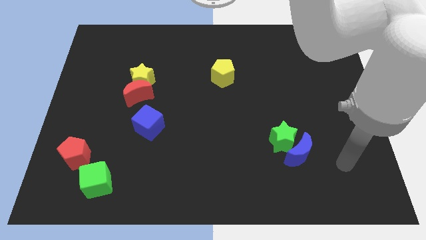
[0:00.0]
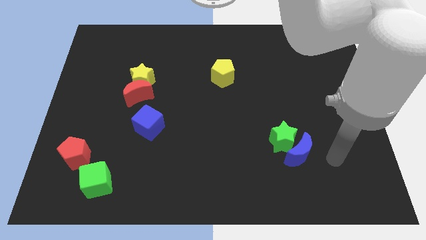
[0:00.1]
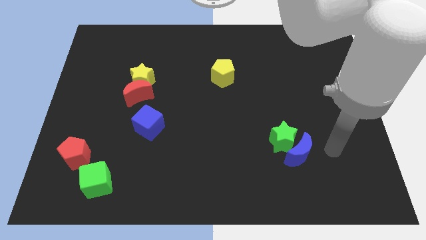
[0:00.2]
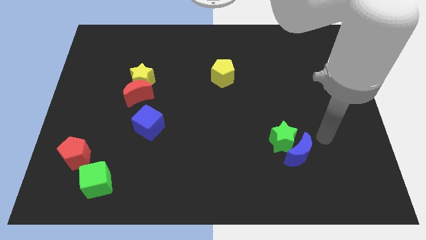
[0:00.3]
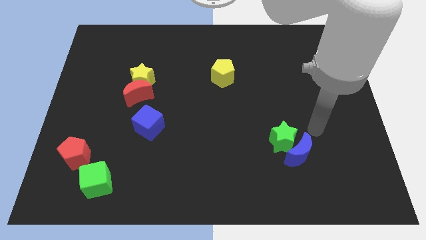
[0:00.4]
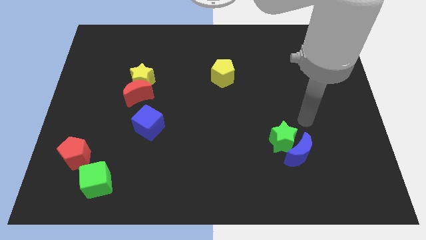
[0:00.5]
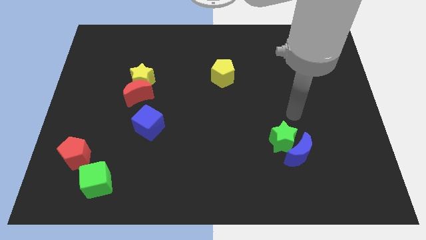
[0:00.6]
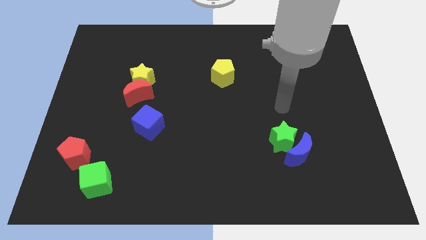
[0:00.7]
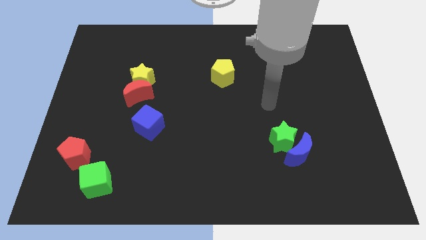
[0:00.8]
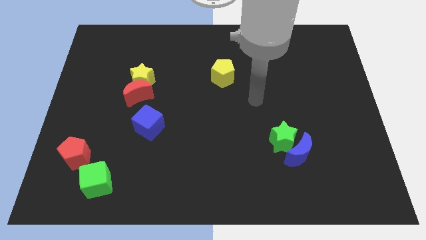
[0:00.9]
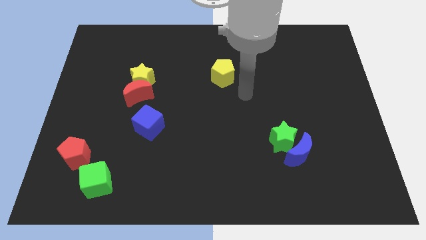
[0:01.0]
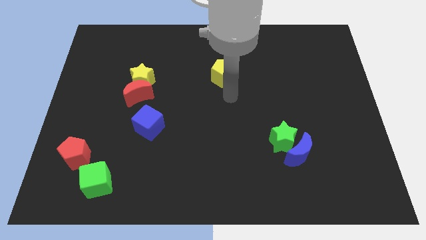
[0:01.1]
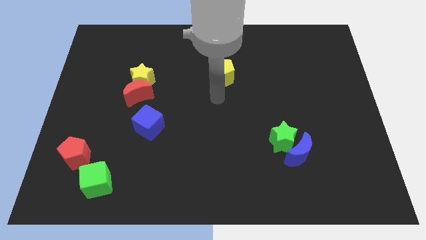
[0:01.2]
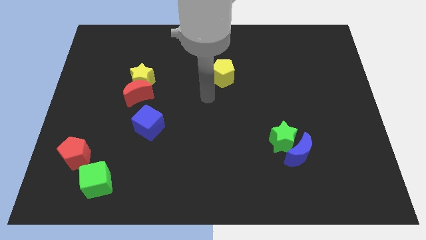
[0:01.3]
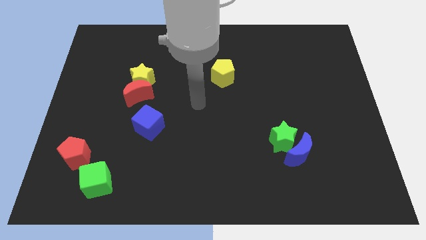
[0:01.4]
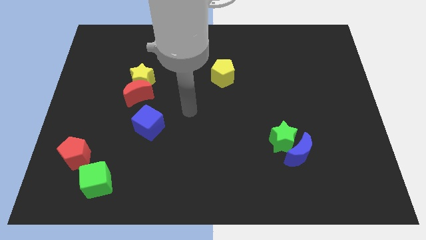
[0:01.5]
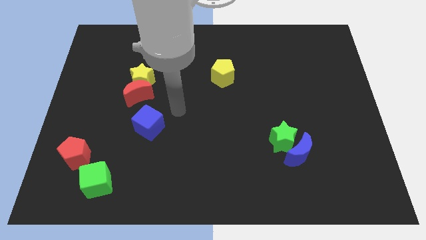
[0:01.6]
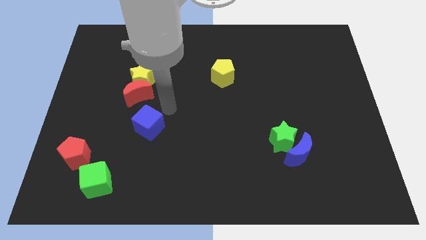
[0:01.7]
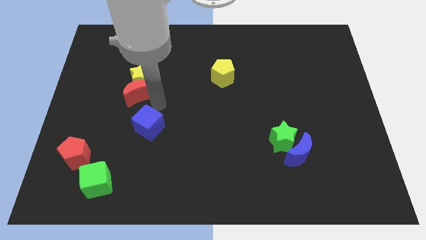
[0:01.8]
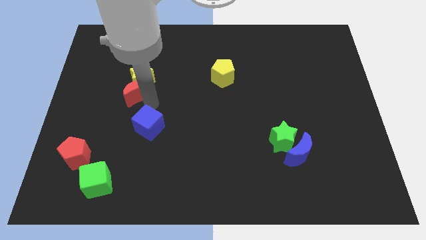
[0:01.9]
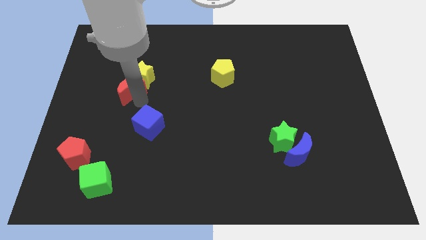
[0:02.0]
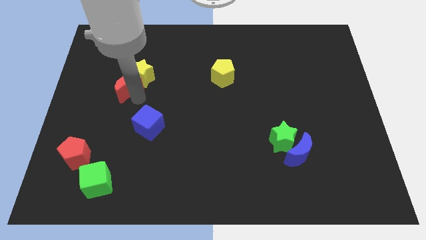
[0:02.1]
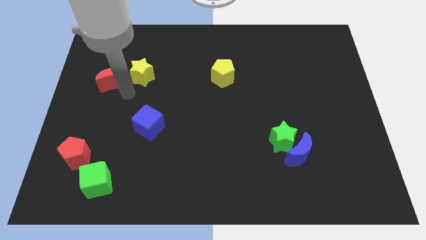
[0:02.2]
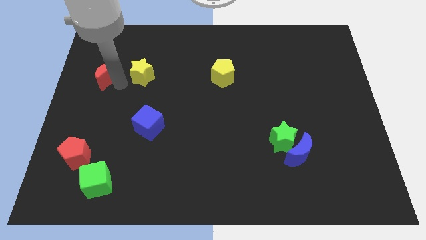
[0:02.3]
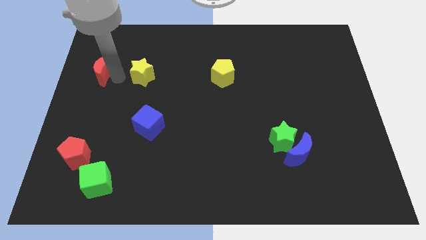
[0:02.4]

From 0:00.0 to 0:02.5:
pull the yellow star apart from the red moon

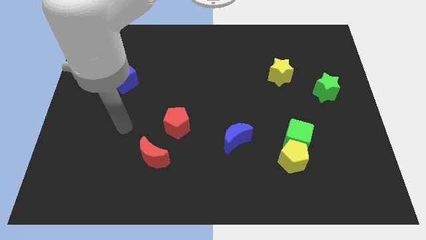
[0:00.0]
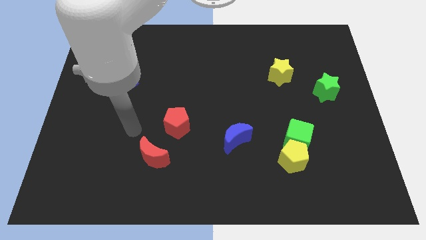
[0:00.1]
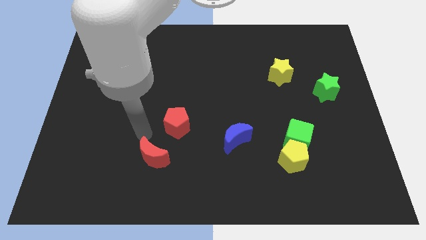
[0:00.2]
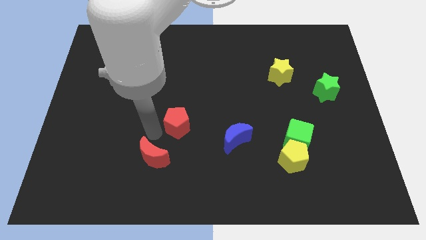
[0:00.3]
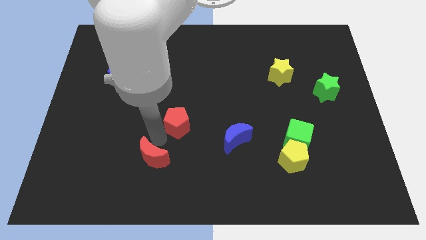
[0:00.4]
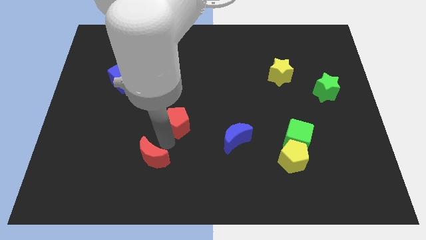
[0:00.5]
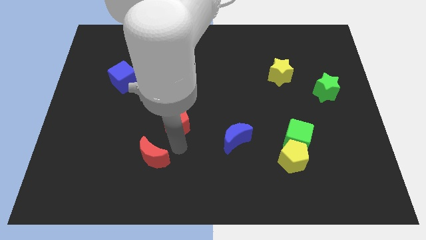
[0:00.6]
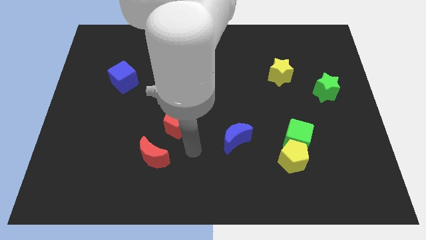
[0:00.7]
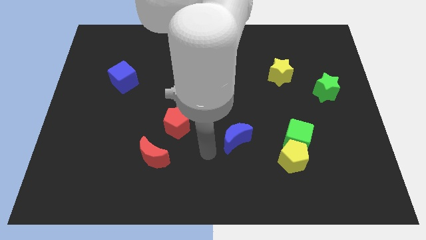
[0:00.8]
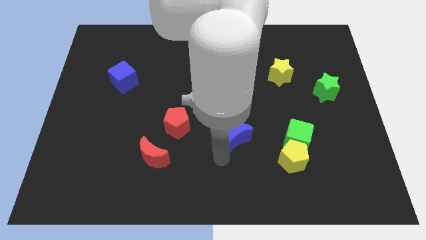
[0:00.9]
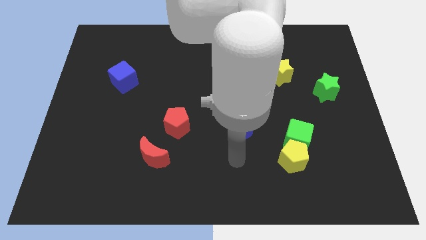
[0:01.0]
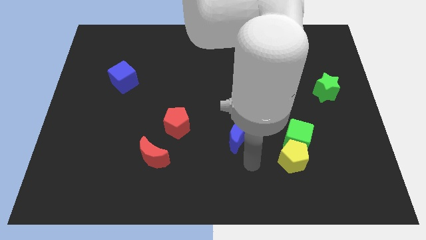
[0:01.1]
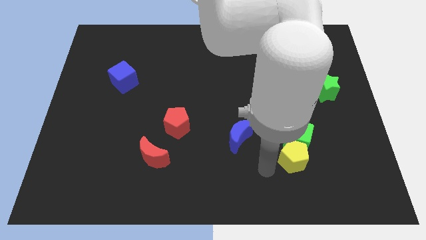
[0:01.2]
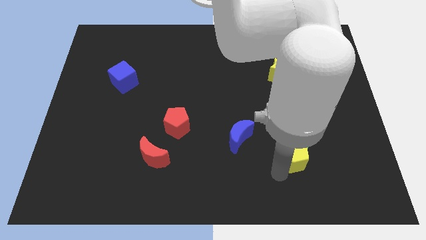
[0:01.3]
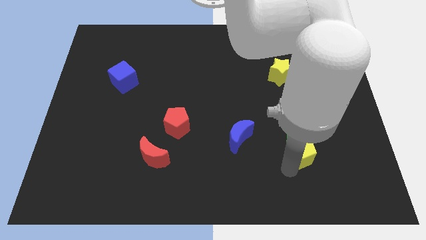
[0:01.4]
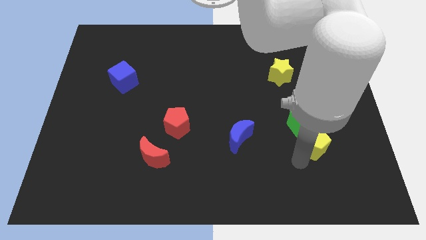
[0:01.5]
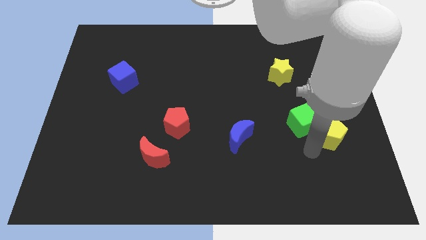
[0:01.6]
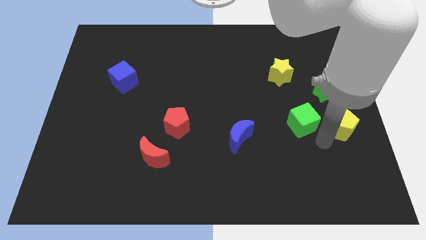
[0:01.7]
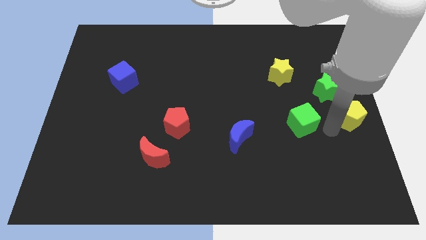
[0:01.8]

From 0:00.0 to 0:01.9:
move the green cube away from the yellow pentagon

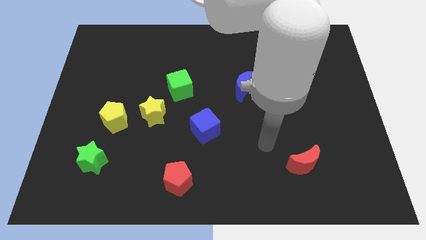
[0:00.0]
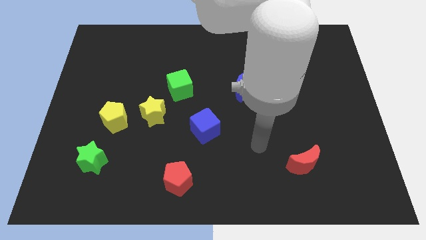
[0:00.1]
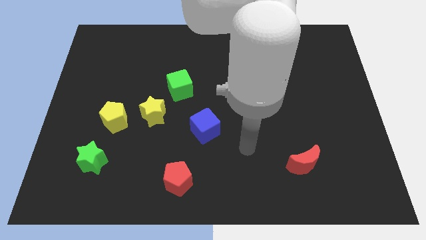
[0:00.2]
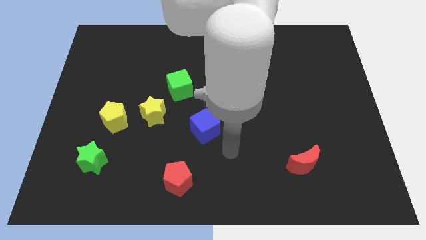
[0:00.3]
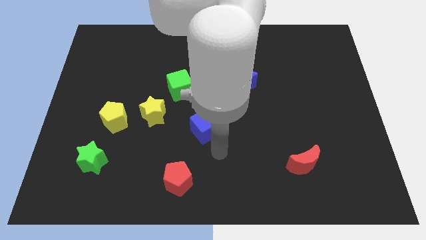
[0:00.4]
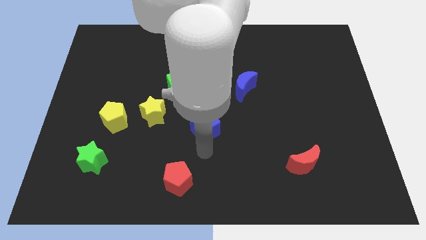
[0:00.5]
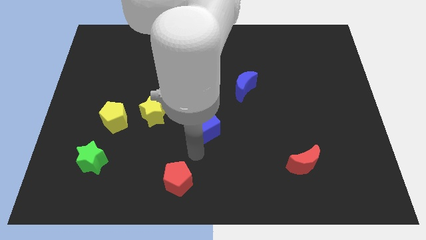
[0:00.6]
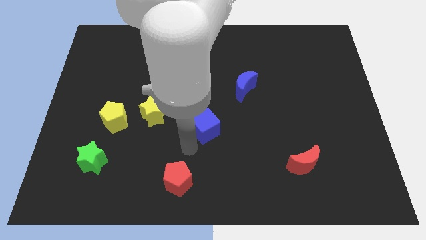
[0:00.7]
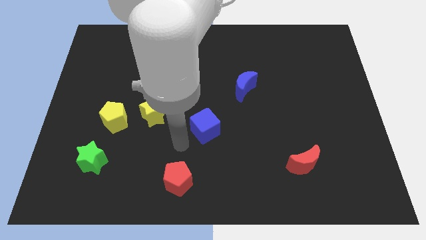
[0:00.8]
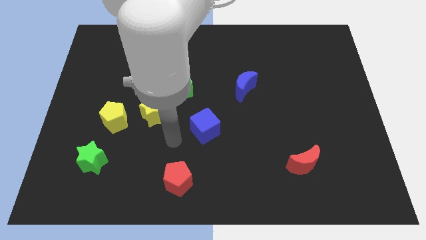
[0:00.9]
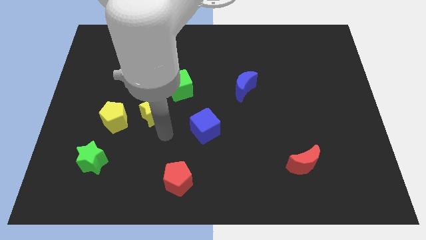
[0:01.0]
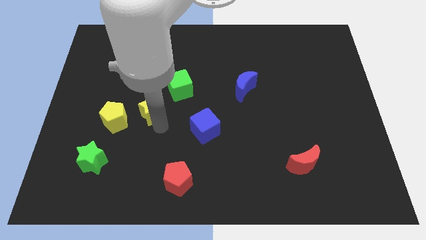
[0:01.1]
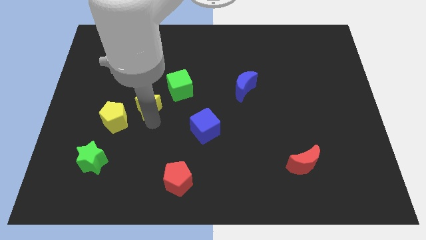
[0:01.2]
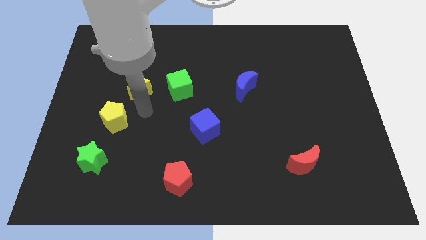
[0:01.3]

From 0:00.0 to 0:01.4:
move the yellow pentagon away from the yellow star

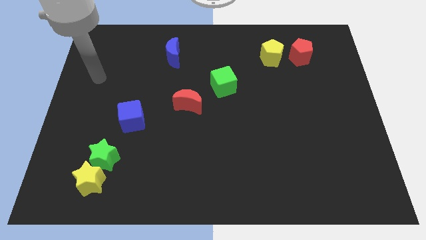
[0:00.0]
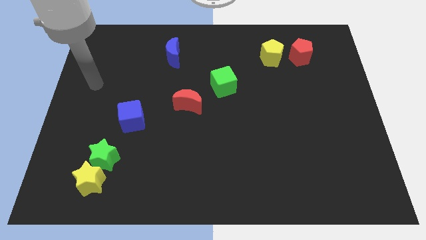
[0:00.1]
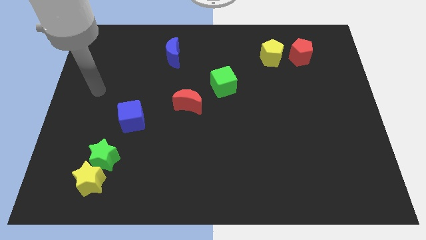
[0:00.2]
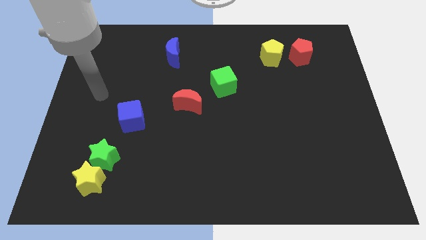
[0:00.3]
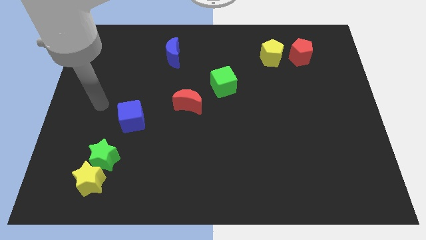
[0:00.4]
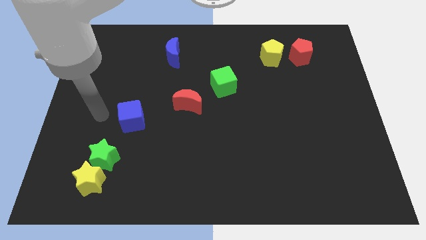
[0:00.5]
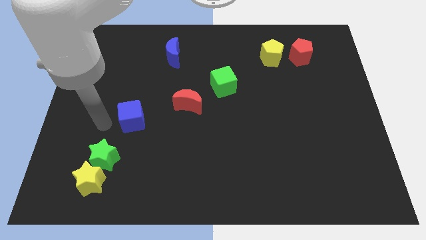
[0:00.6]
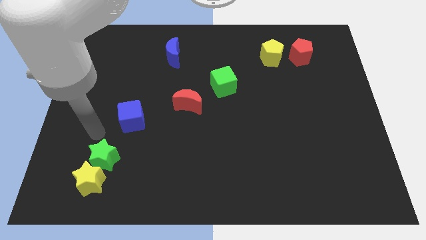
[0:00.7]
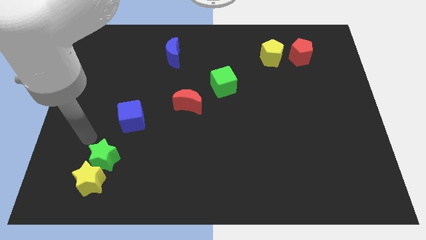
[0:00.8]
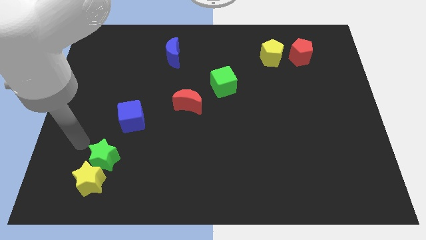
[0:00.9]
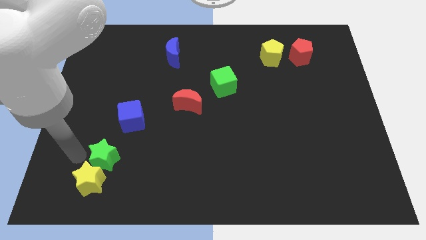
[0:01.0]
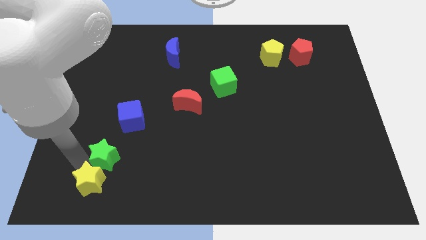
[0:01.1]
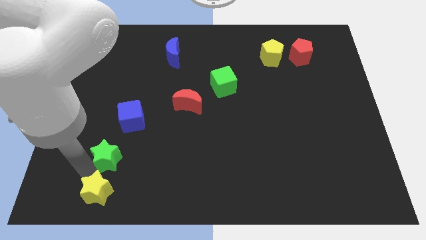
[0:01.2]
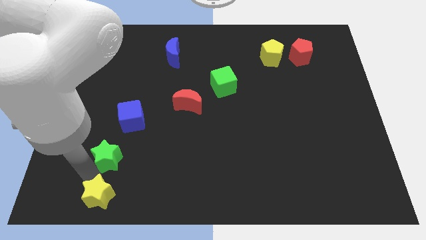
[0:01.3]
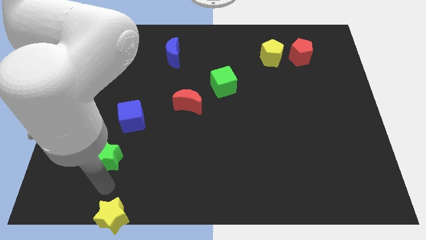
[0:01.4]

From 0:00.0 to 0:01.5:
pull the green star apart from the yellow star

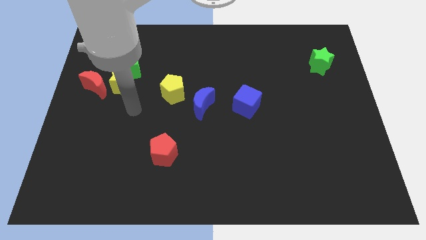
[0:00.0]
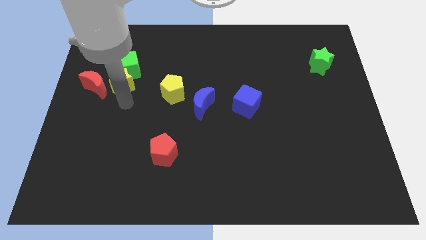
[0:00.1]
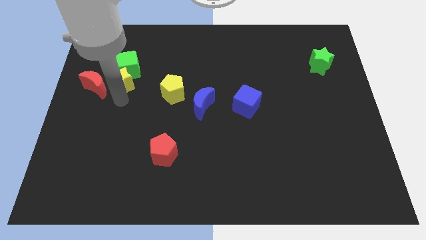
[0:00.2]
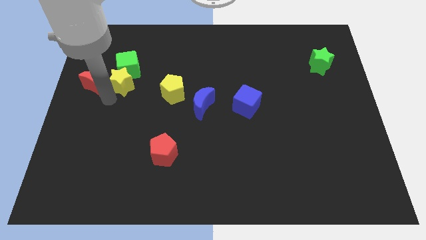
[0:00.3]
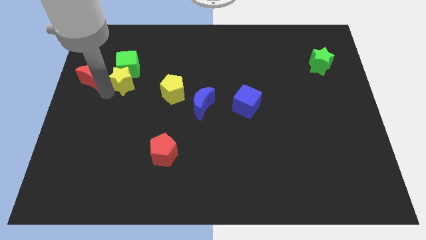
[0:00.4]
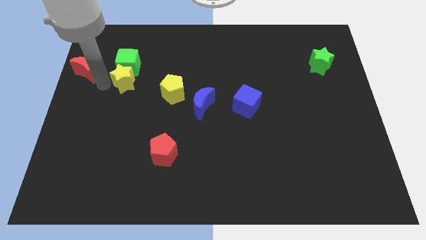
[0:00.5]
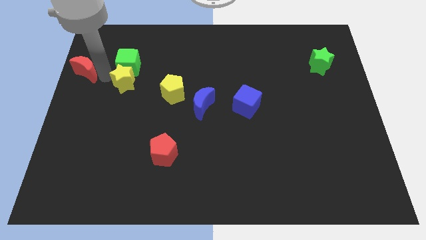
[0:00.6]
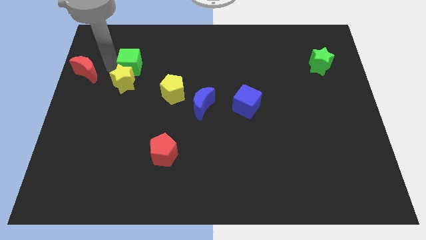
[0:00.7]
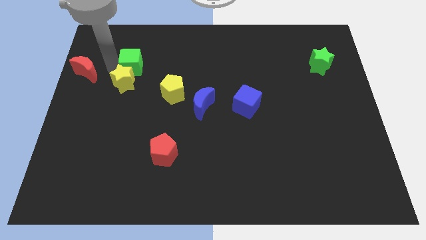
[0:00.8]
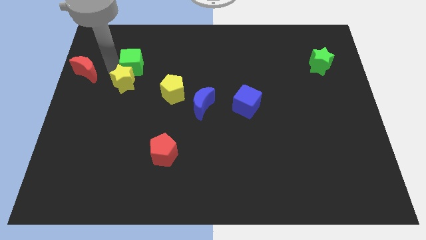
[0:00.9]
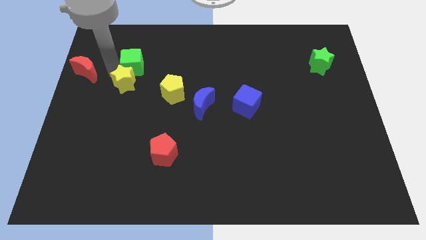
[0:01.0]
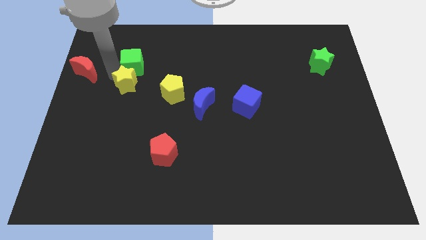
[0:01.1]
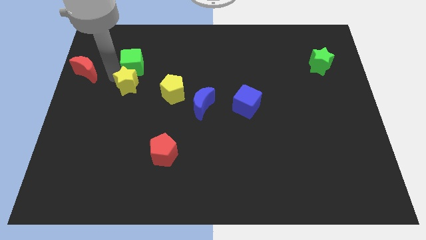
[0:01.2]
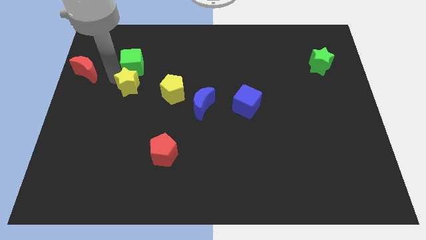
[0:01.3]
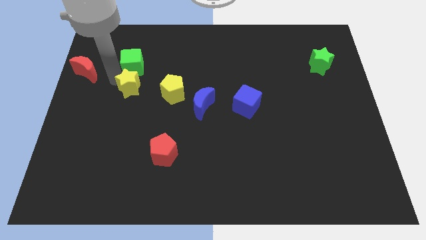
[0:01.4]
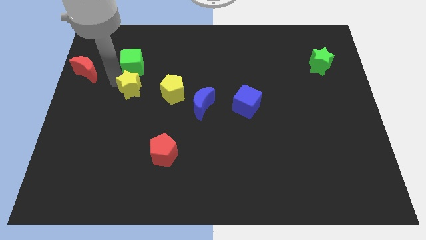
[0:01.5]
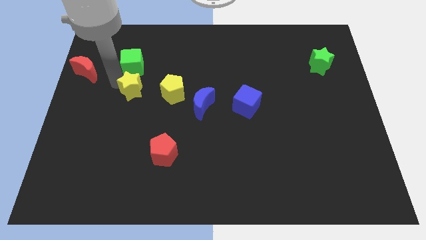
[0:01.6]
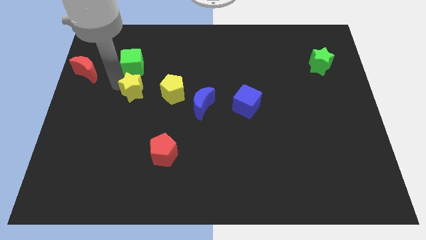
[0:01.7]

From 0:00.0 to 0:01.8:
pull the yellow star apart from the green cube and red moon
